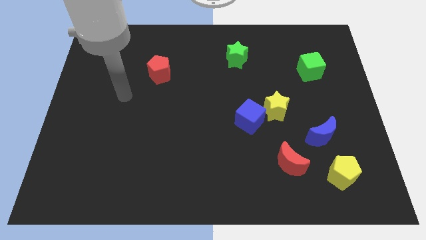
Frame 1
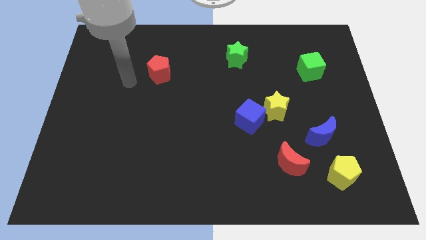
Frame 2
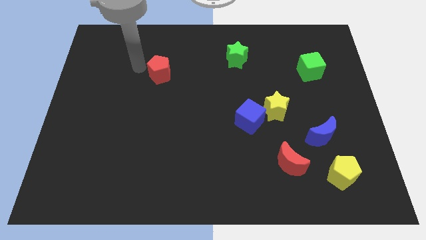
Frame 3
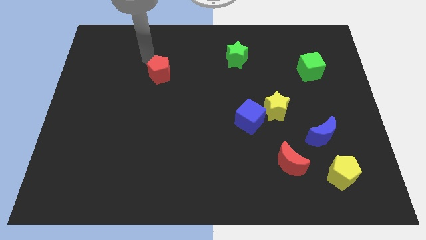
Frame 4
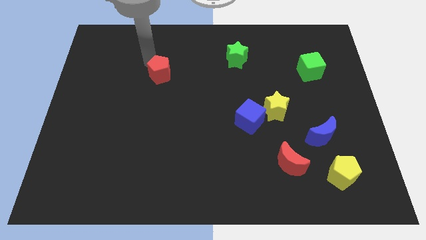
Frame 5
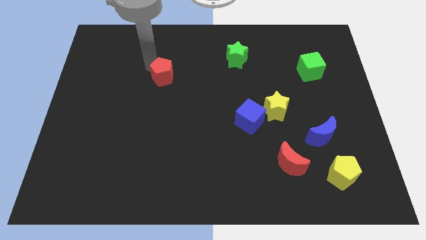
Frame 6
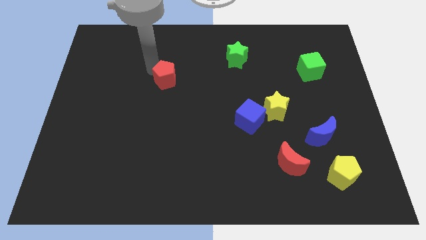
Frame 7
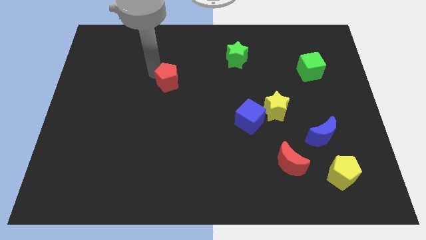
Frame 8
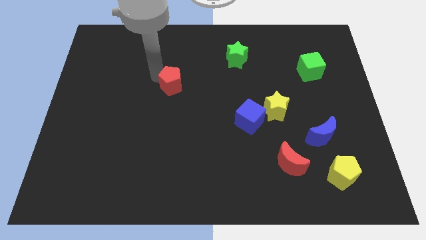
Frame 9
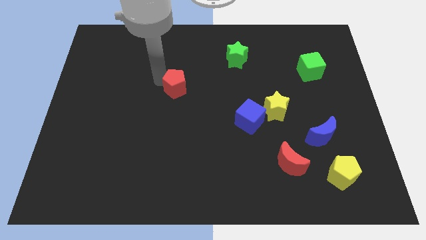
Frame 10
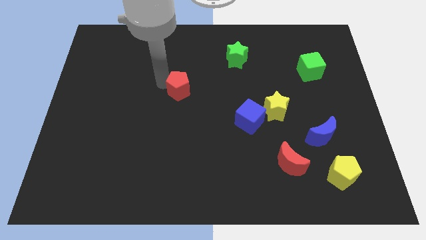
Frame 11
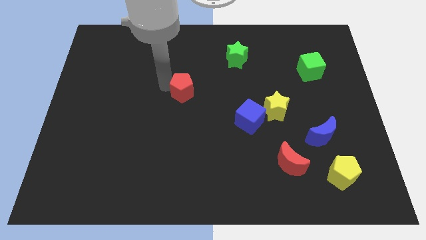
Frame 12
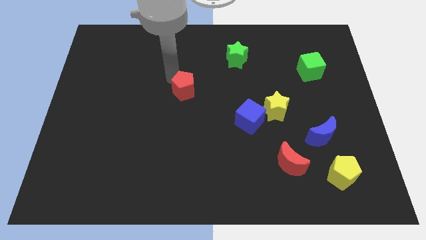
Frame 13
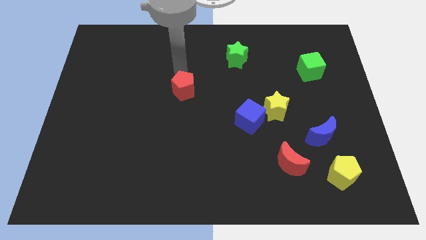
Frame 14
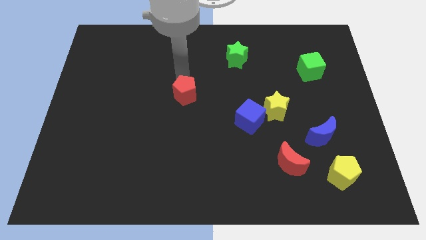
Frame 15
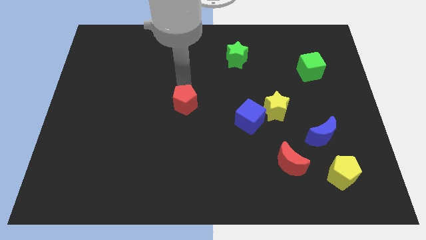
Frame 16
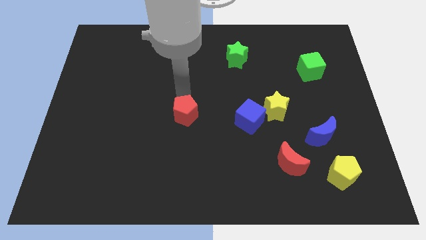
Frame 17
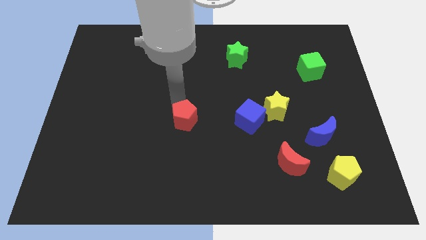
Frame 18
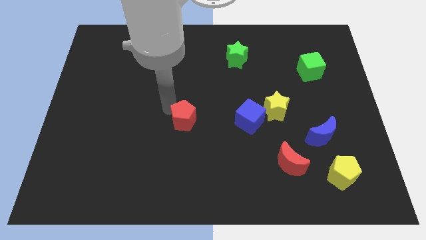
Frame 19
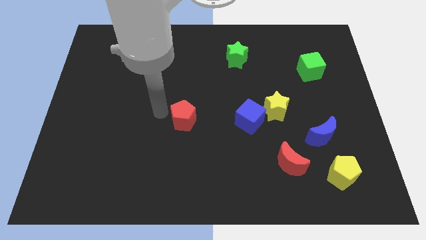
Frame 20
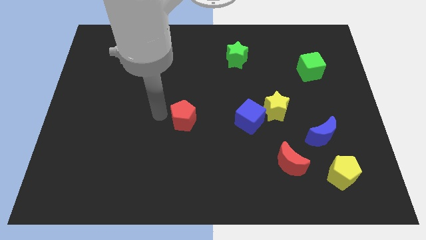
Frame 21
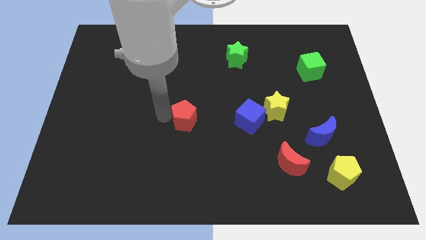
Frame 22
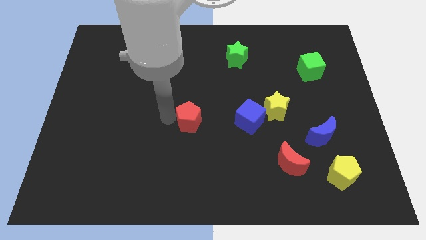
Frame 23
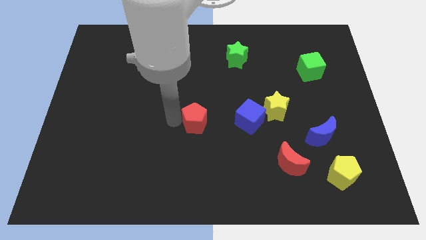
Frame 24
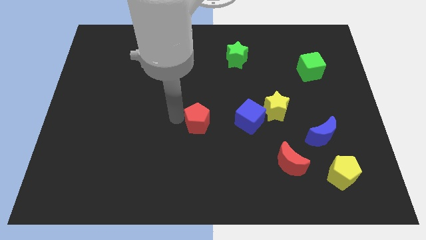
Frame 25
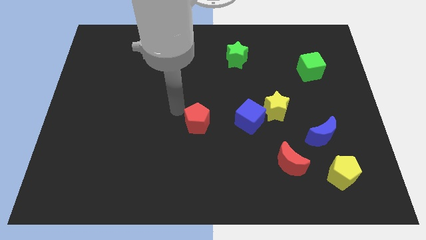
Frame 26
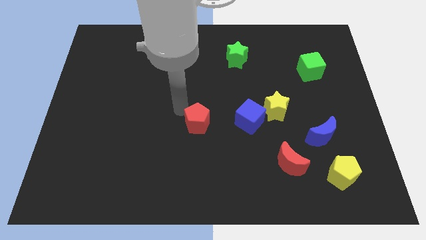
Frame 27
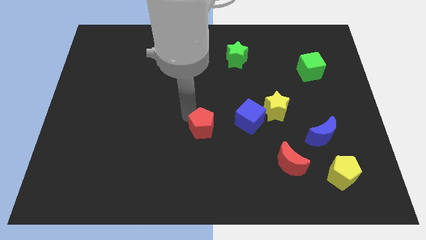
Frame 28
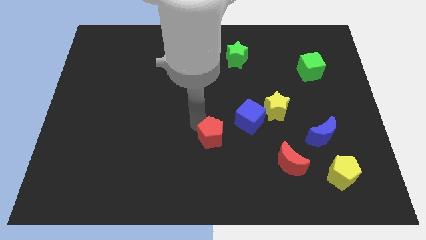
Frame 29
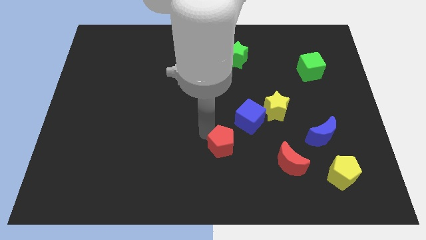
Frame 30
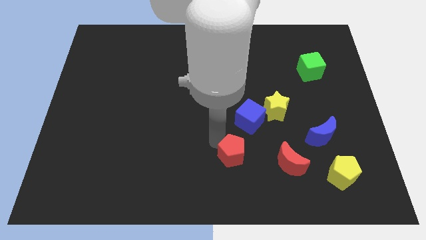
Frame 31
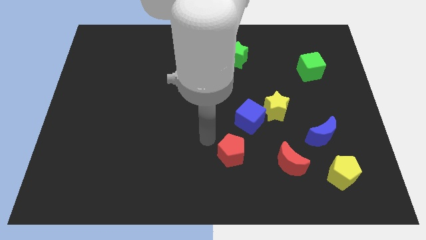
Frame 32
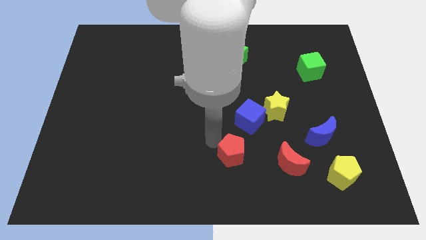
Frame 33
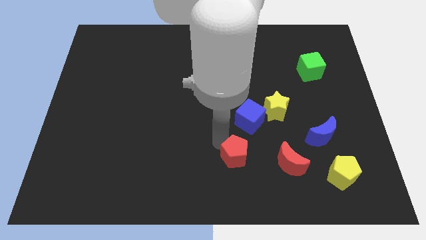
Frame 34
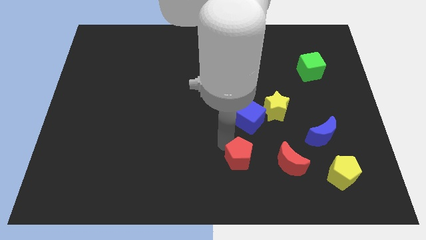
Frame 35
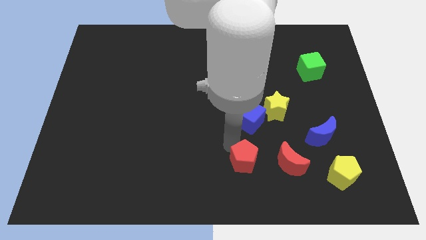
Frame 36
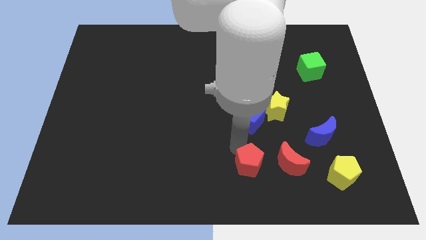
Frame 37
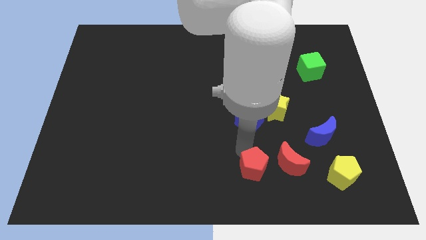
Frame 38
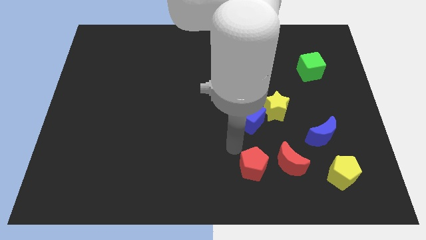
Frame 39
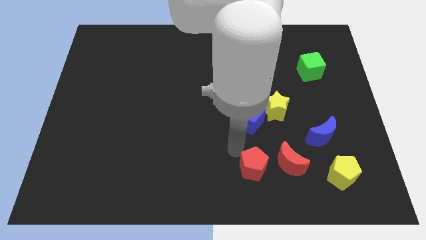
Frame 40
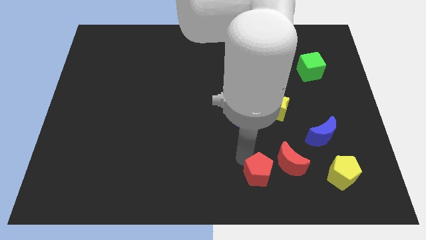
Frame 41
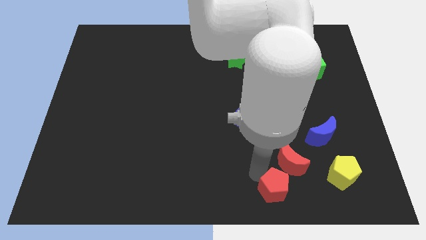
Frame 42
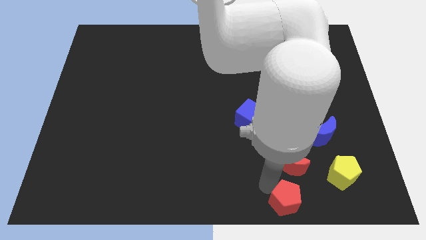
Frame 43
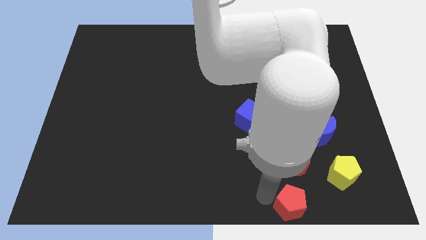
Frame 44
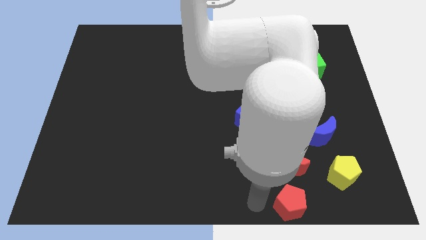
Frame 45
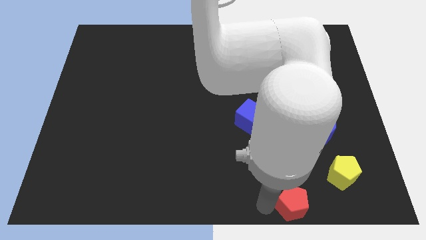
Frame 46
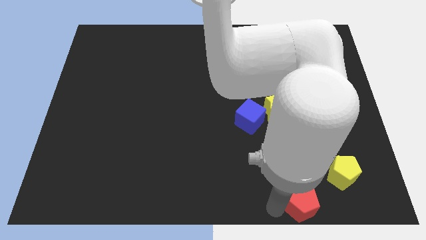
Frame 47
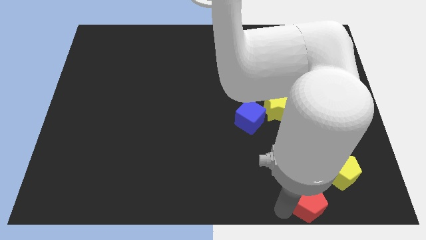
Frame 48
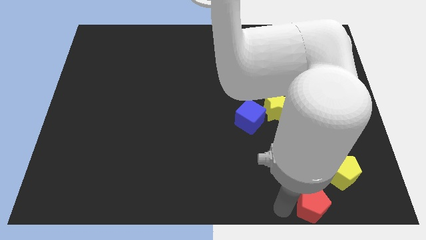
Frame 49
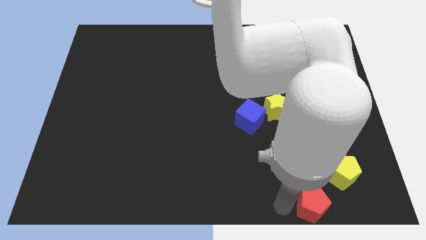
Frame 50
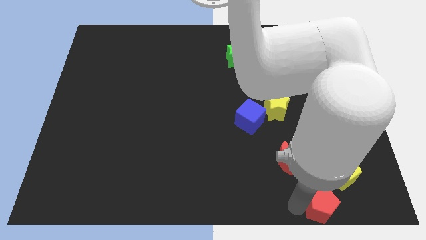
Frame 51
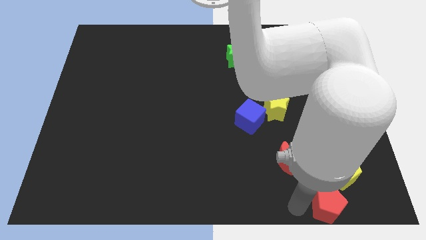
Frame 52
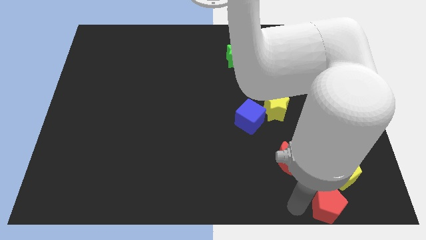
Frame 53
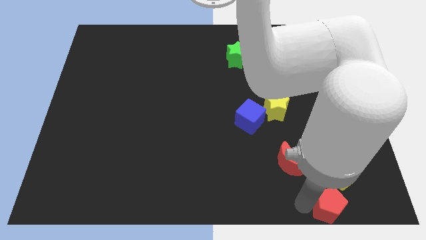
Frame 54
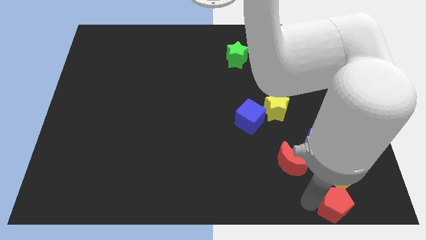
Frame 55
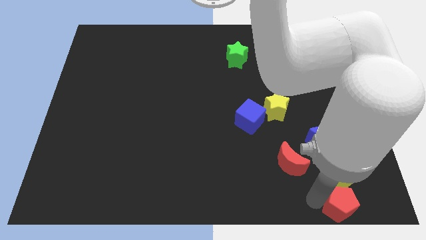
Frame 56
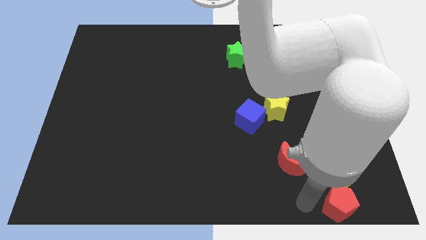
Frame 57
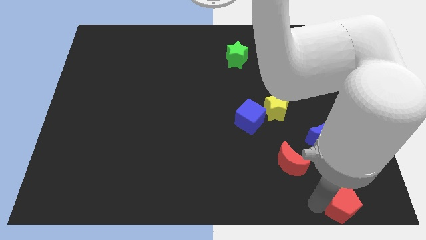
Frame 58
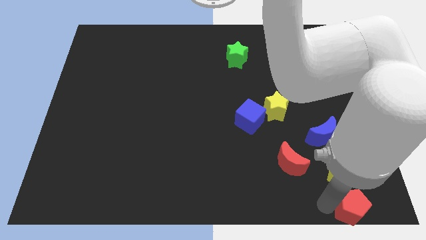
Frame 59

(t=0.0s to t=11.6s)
move the red pentagon to the bottom right of the board

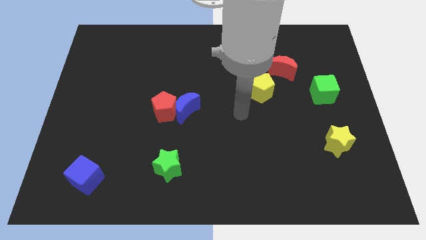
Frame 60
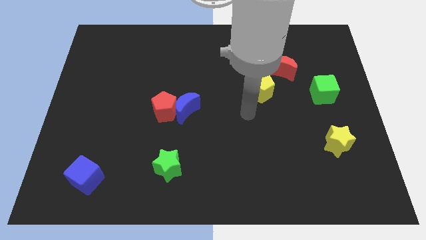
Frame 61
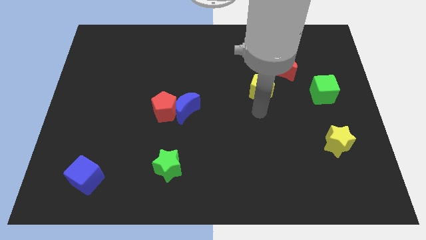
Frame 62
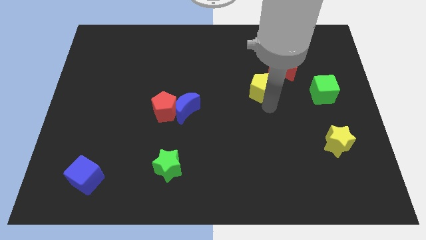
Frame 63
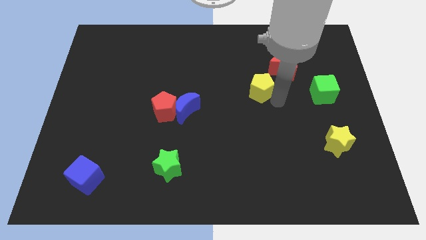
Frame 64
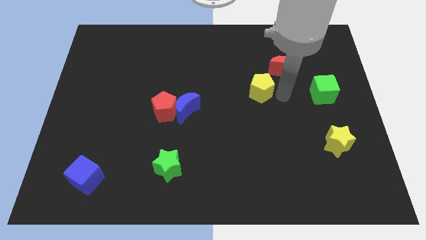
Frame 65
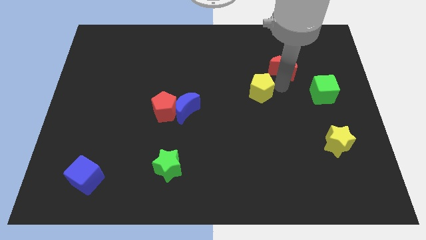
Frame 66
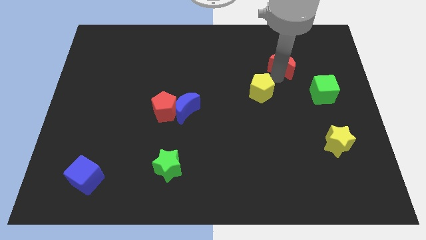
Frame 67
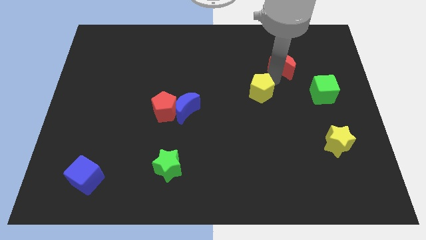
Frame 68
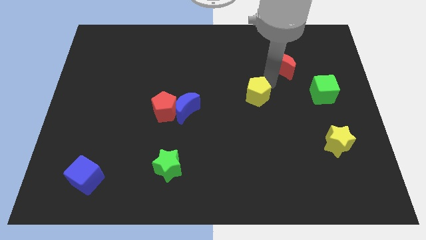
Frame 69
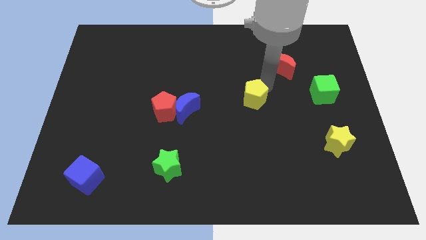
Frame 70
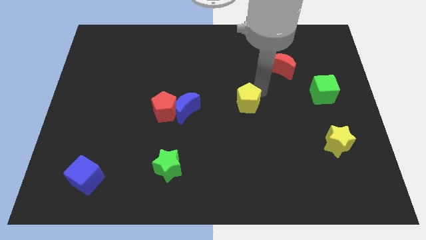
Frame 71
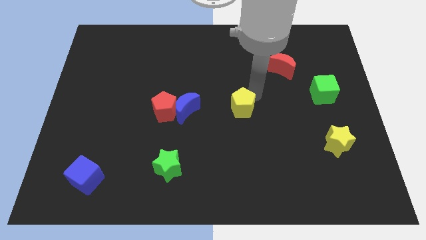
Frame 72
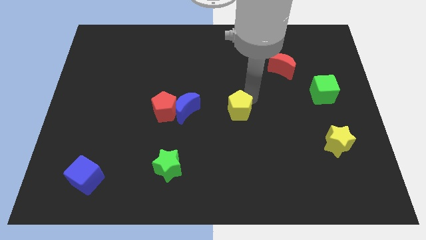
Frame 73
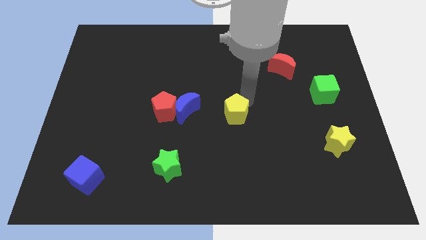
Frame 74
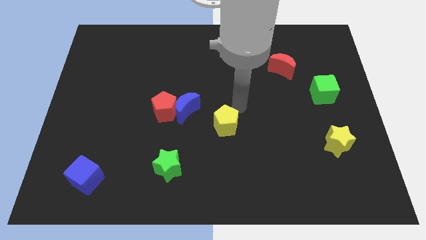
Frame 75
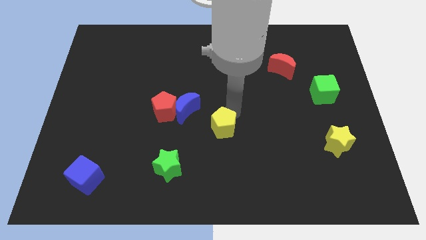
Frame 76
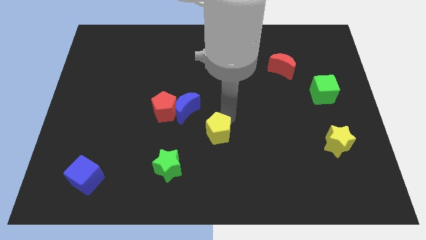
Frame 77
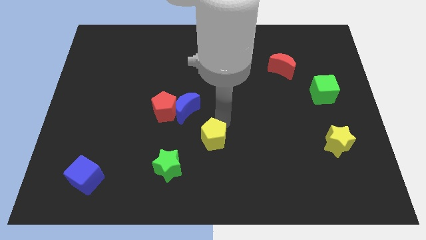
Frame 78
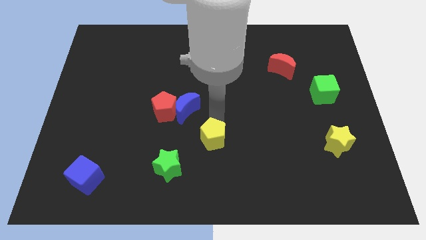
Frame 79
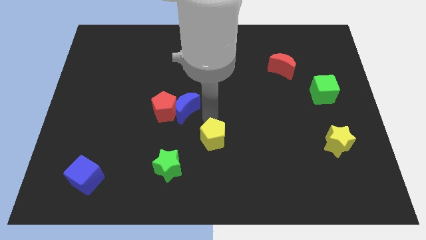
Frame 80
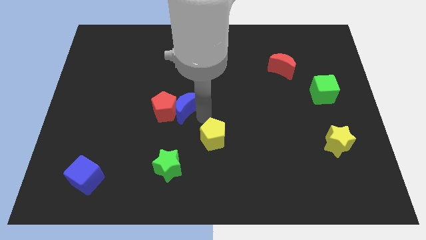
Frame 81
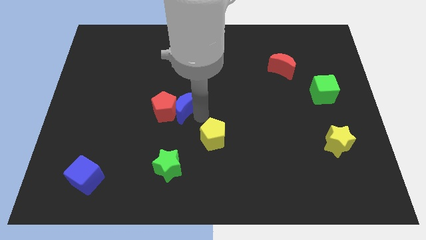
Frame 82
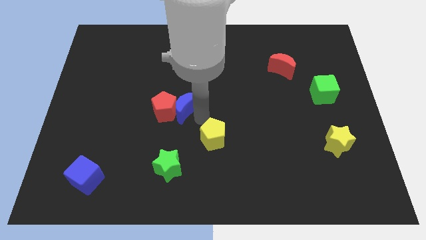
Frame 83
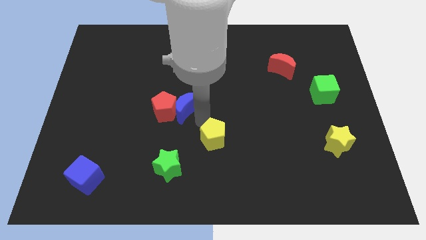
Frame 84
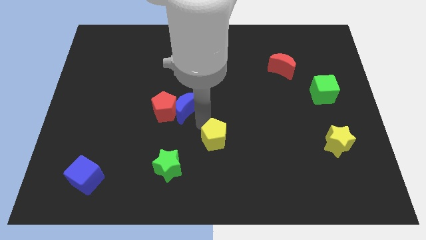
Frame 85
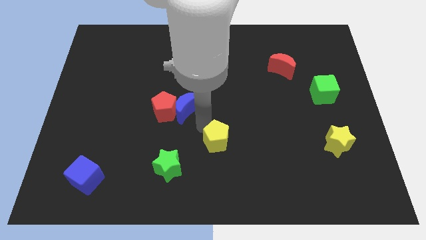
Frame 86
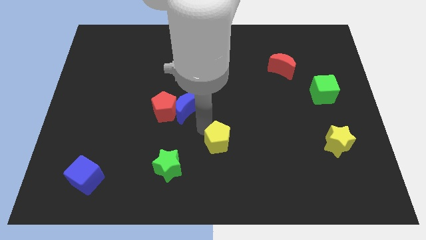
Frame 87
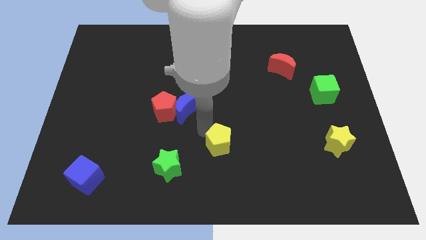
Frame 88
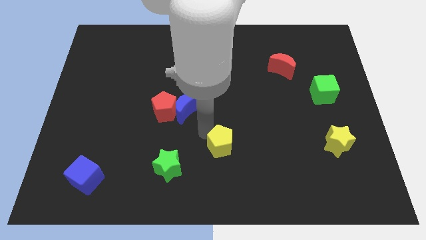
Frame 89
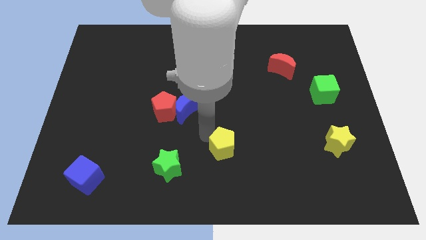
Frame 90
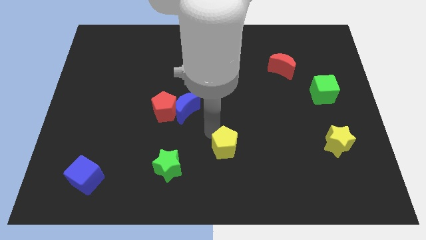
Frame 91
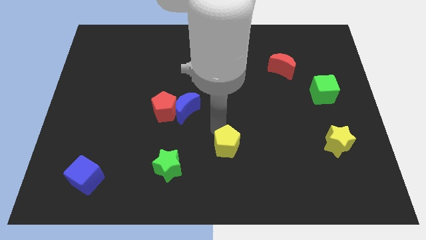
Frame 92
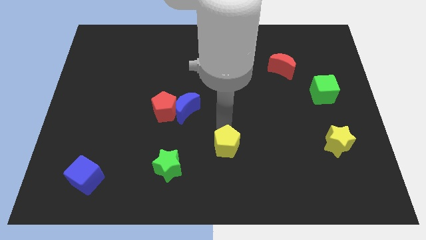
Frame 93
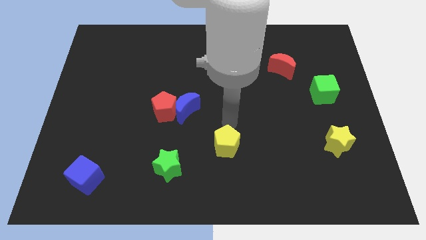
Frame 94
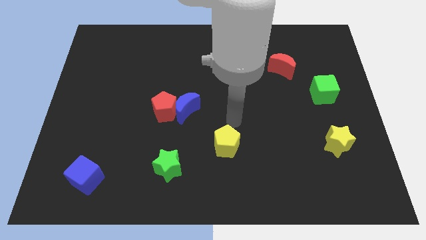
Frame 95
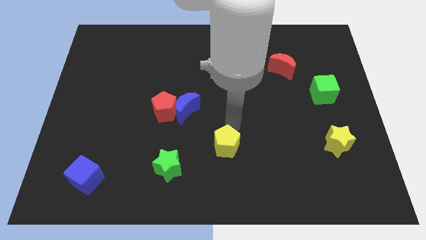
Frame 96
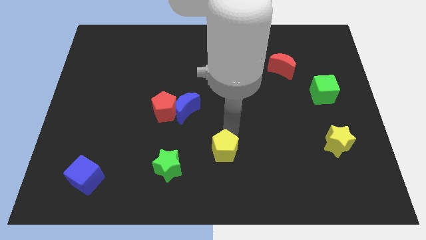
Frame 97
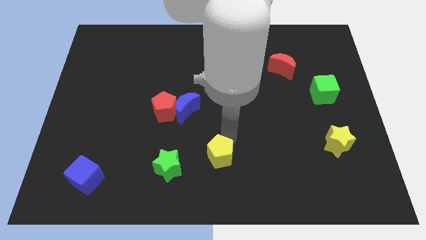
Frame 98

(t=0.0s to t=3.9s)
slide the yellow pentagon to the bottom
